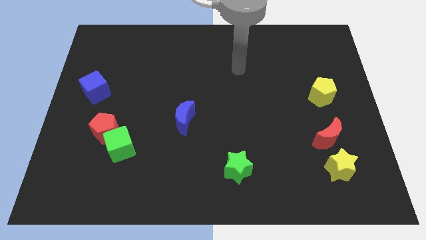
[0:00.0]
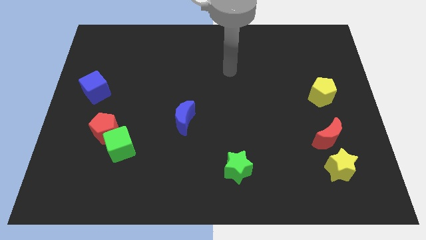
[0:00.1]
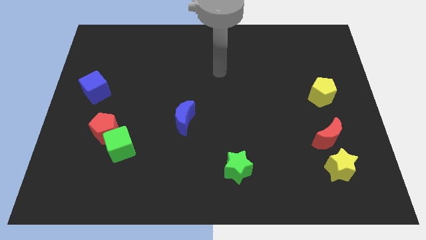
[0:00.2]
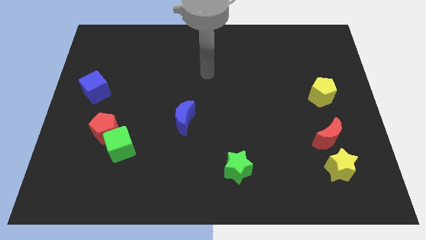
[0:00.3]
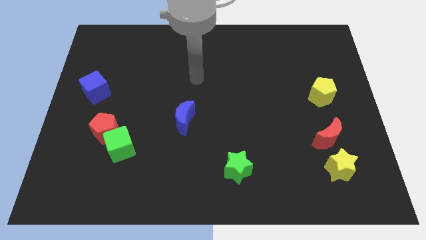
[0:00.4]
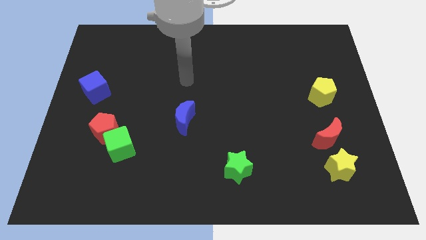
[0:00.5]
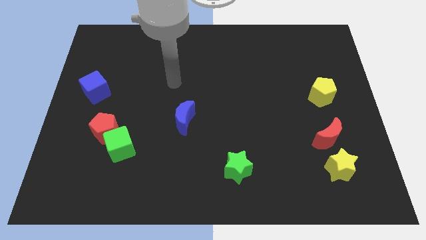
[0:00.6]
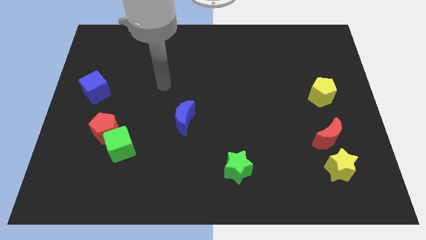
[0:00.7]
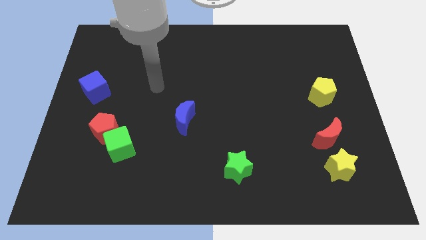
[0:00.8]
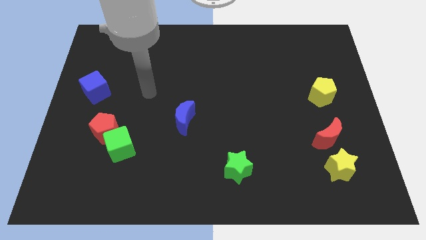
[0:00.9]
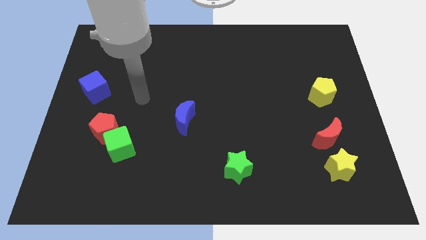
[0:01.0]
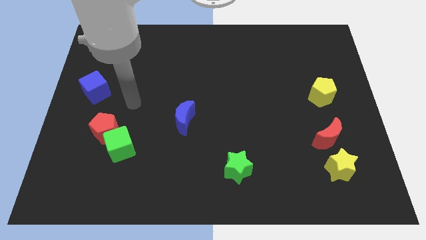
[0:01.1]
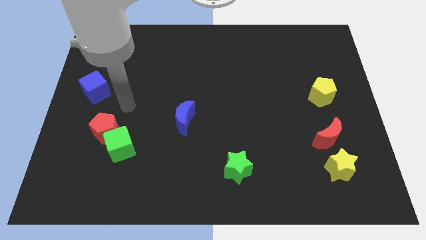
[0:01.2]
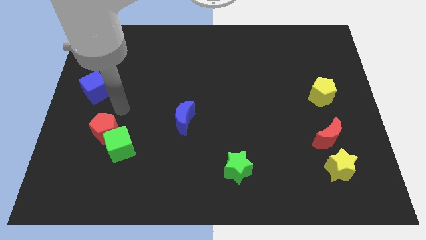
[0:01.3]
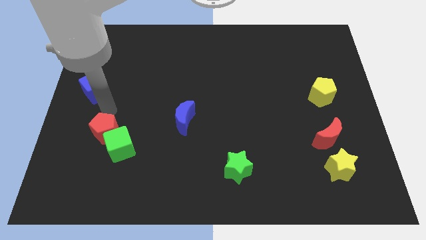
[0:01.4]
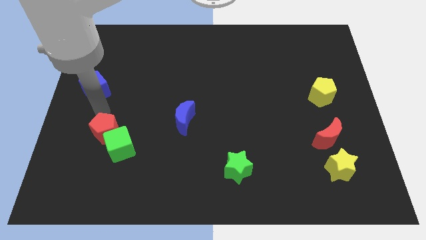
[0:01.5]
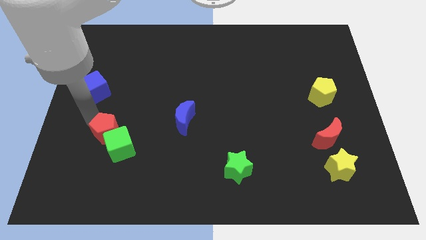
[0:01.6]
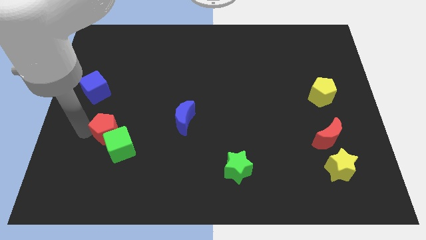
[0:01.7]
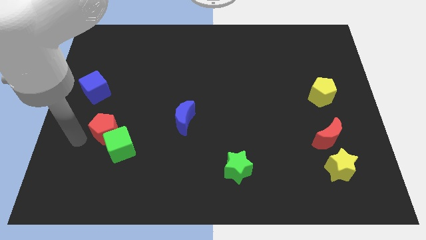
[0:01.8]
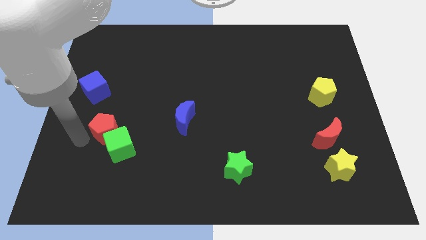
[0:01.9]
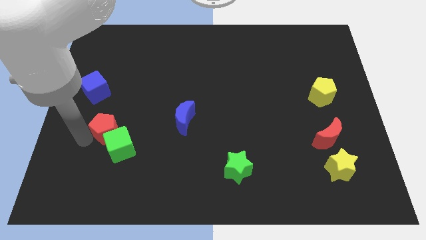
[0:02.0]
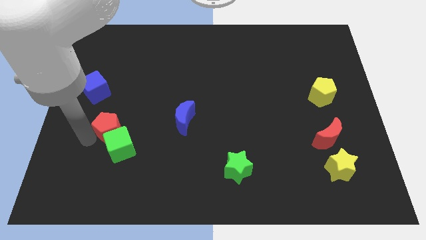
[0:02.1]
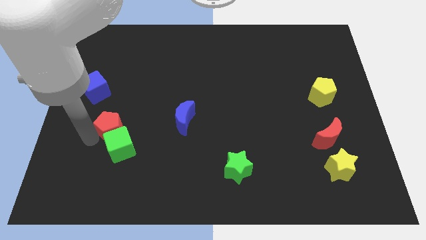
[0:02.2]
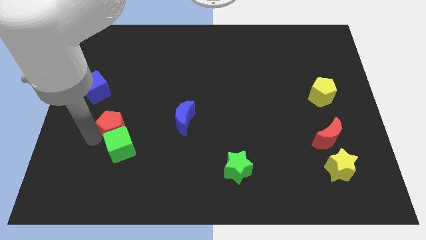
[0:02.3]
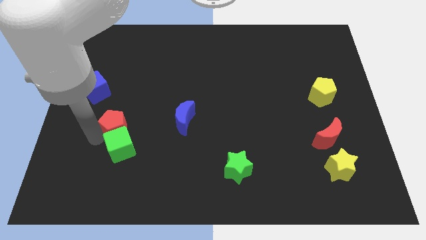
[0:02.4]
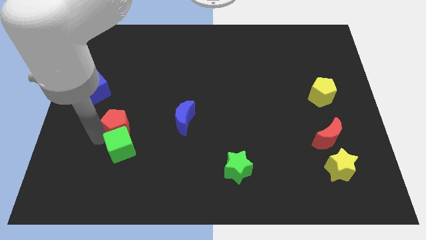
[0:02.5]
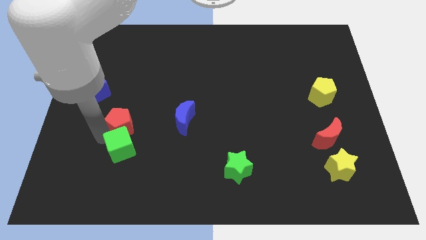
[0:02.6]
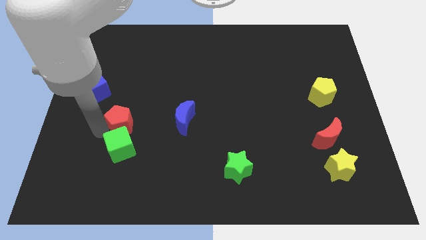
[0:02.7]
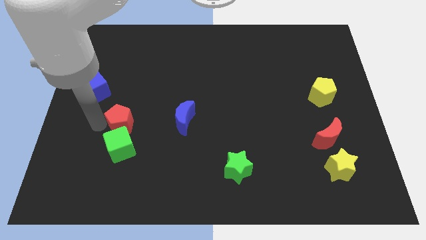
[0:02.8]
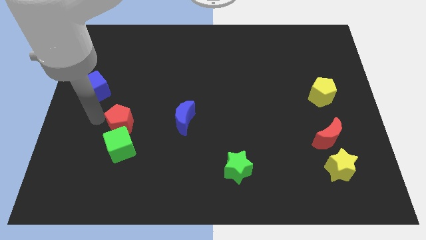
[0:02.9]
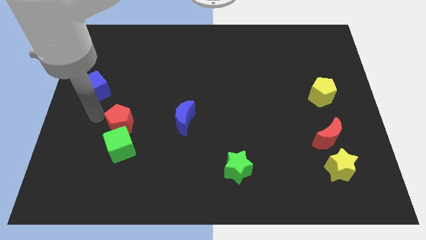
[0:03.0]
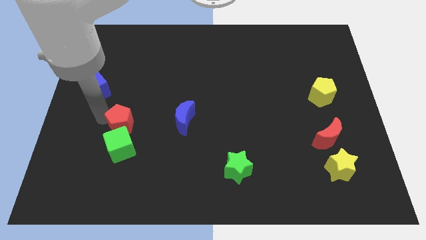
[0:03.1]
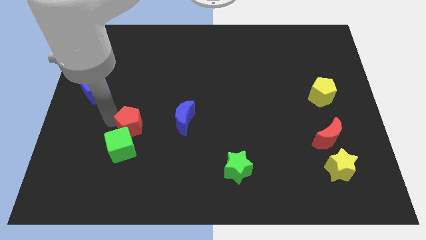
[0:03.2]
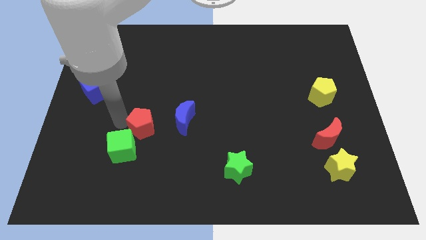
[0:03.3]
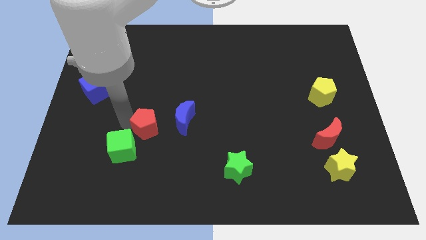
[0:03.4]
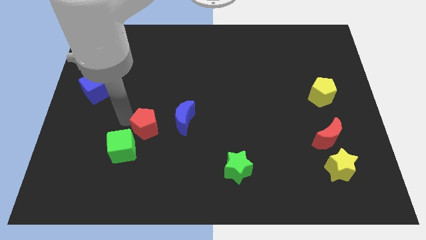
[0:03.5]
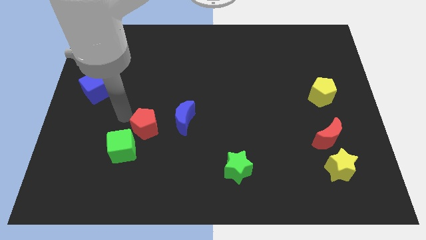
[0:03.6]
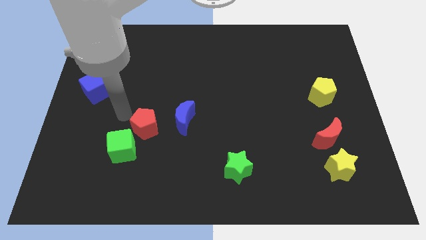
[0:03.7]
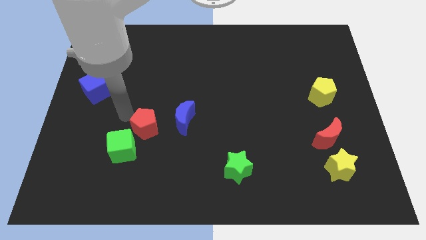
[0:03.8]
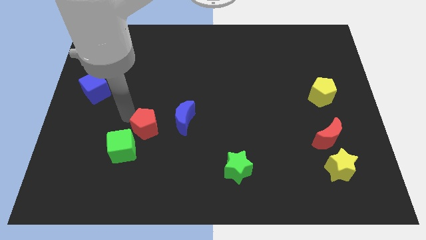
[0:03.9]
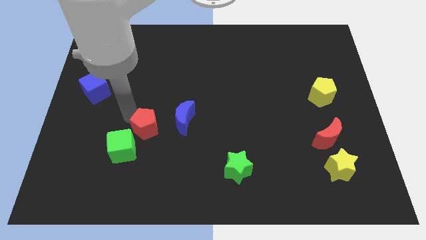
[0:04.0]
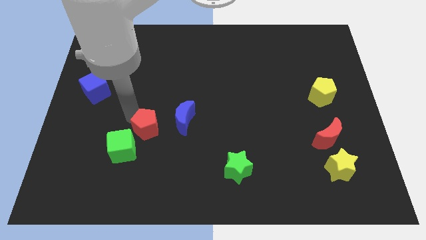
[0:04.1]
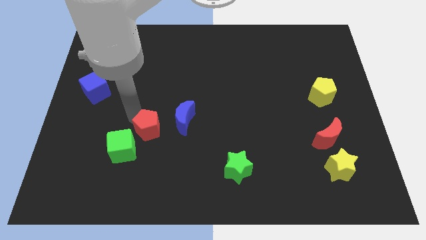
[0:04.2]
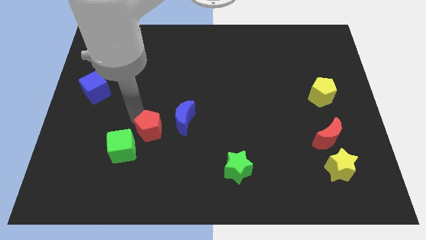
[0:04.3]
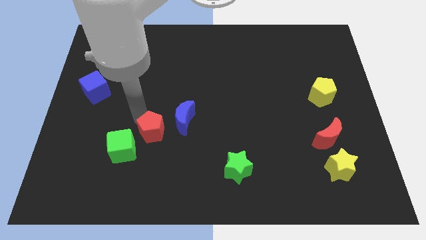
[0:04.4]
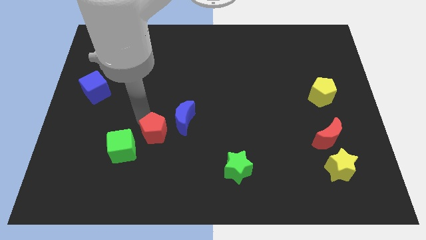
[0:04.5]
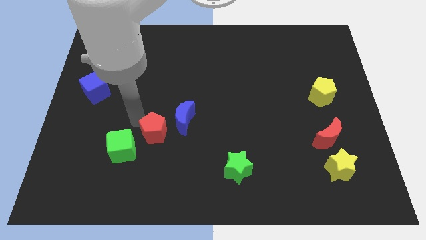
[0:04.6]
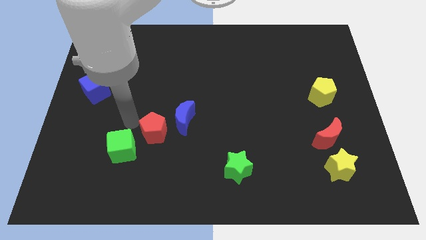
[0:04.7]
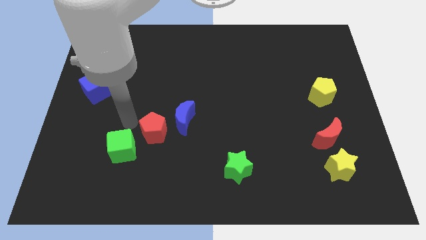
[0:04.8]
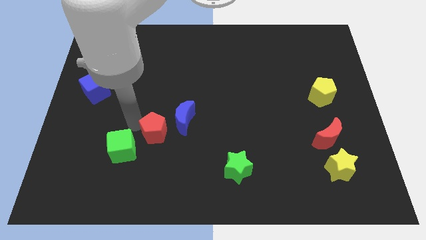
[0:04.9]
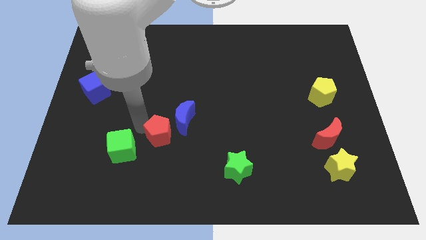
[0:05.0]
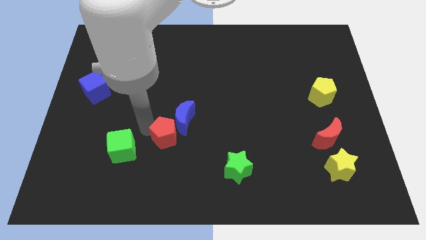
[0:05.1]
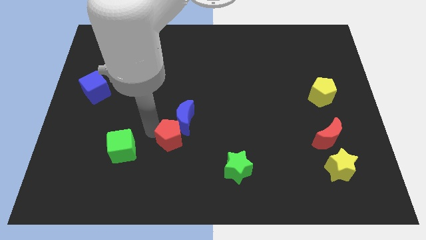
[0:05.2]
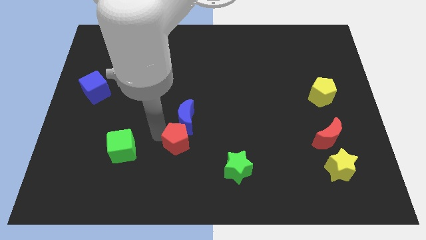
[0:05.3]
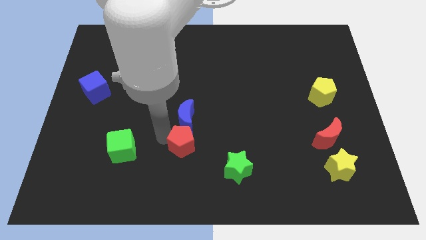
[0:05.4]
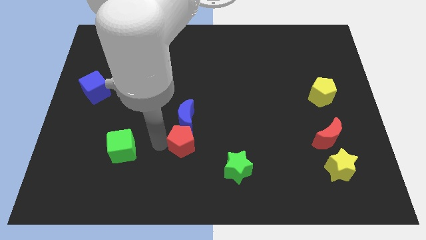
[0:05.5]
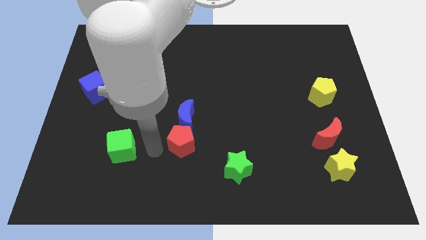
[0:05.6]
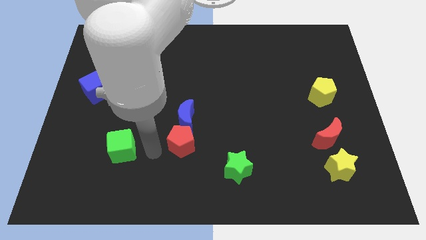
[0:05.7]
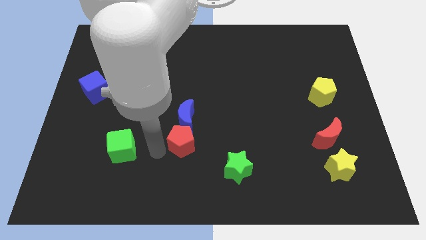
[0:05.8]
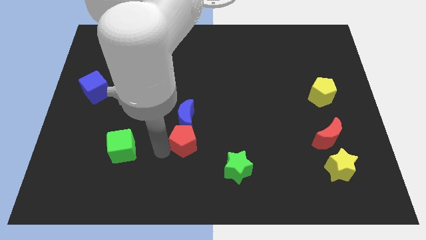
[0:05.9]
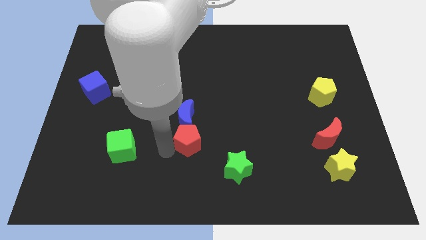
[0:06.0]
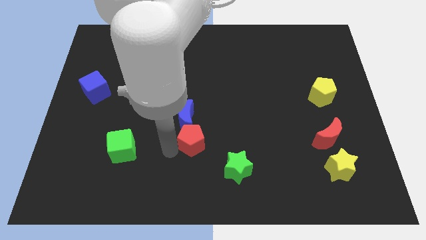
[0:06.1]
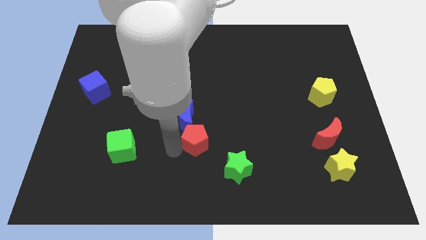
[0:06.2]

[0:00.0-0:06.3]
push the red pentagon right

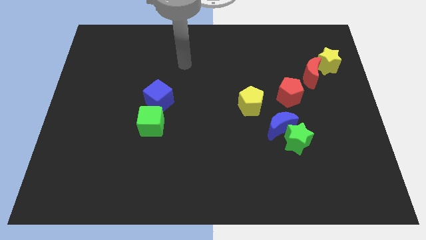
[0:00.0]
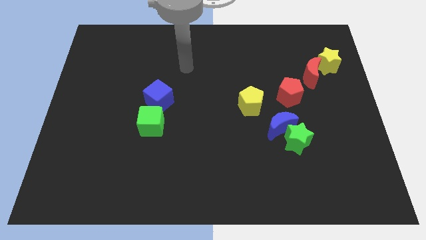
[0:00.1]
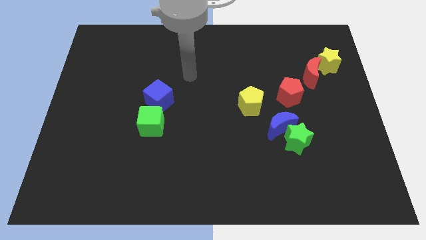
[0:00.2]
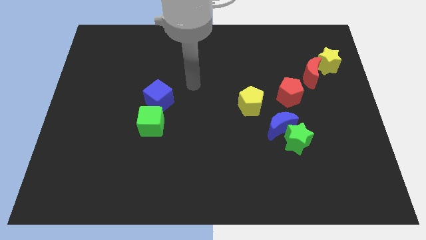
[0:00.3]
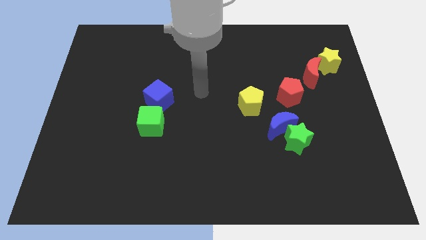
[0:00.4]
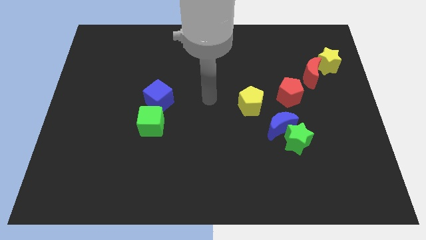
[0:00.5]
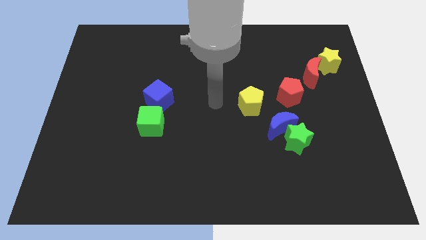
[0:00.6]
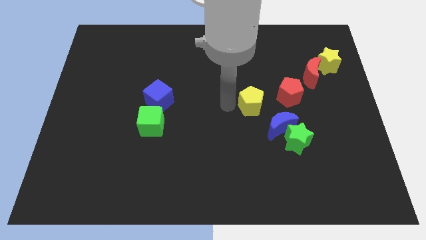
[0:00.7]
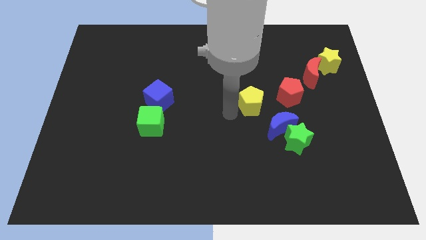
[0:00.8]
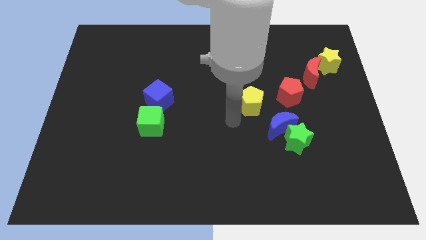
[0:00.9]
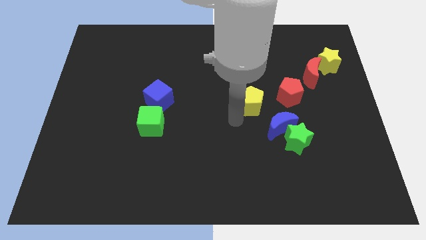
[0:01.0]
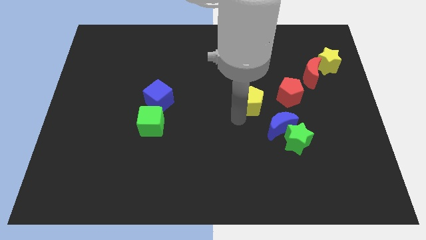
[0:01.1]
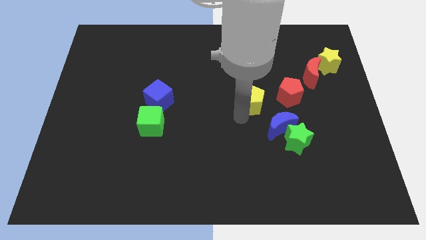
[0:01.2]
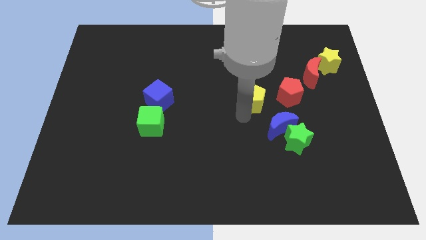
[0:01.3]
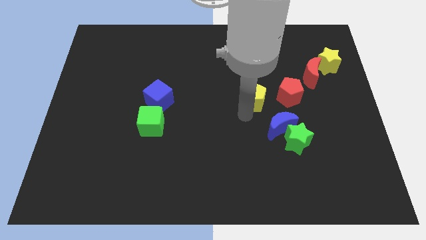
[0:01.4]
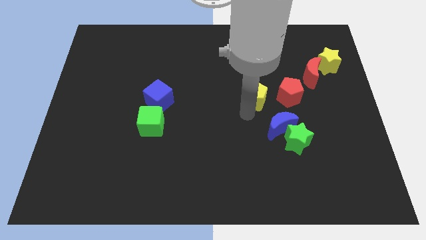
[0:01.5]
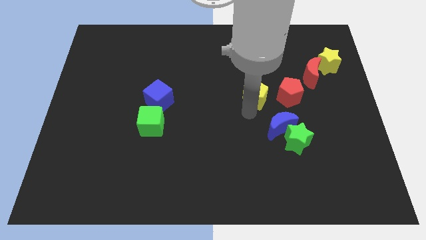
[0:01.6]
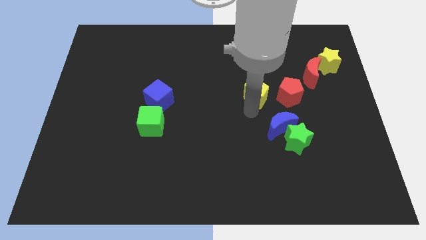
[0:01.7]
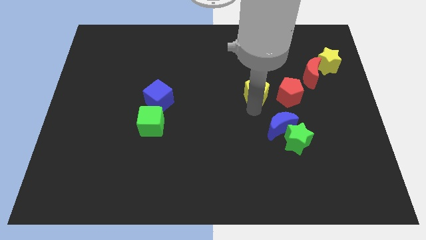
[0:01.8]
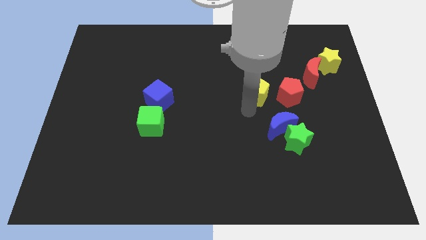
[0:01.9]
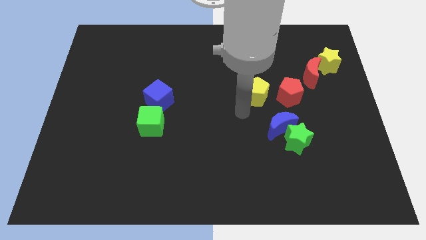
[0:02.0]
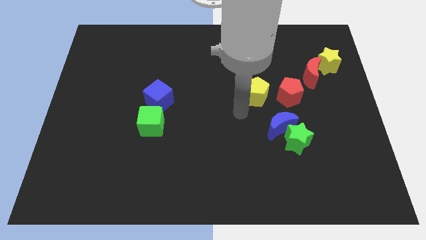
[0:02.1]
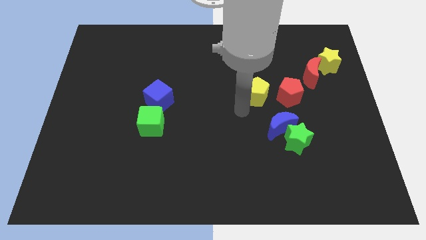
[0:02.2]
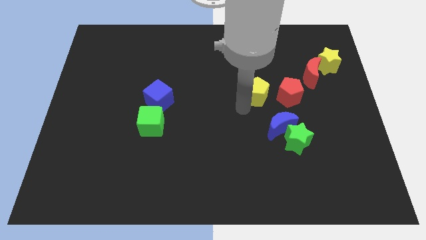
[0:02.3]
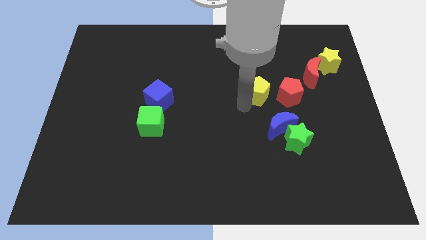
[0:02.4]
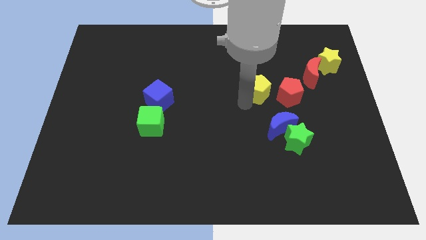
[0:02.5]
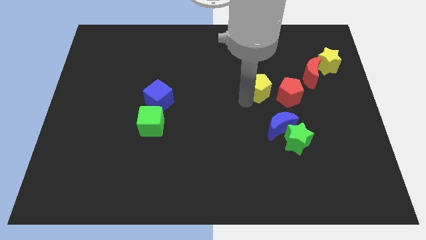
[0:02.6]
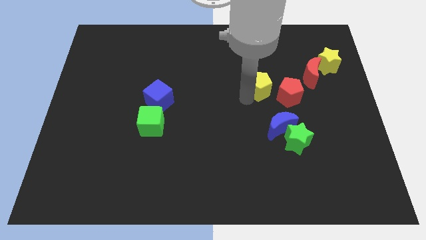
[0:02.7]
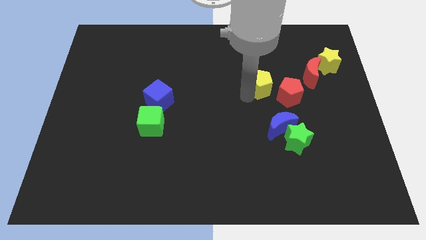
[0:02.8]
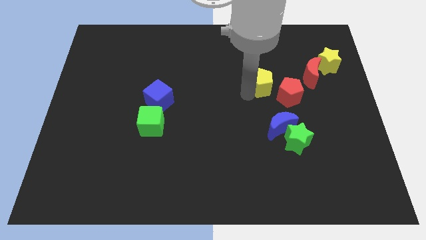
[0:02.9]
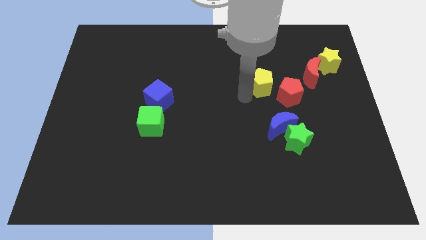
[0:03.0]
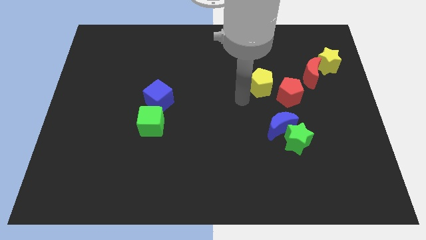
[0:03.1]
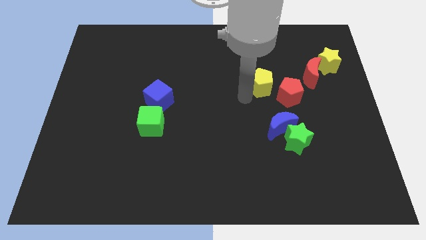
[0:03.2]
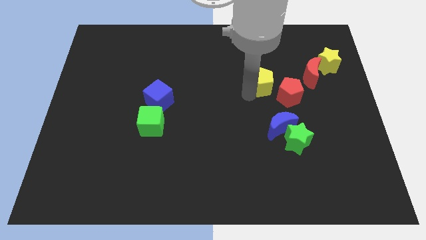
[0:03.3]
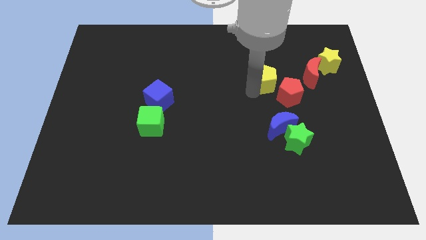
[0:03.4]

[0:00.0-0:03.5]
push the yellow pentagon a little upwards and to the right diagonally
